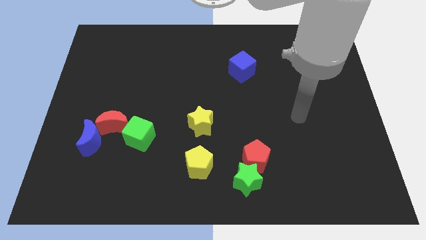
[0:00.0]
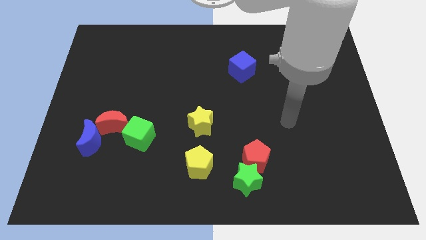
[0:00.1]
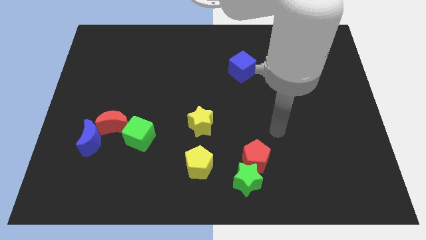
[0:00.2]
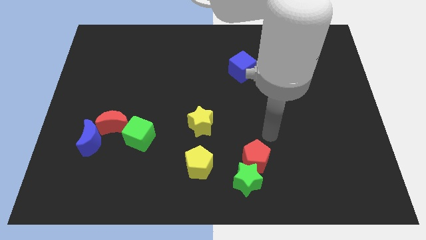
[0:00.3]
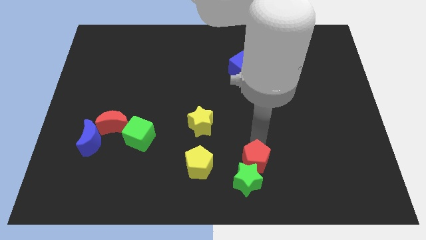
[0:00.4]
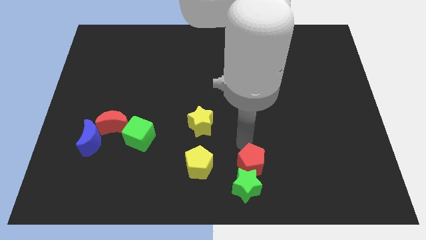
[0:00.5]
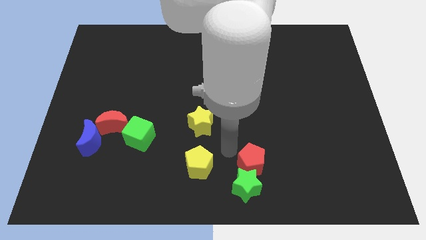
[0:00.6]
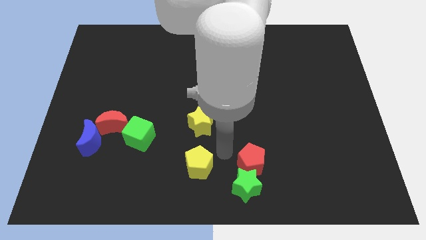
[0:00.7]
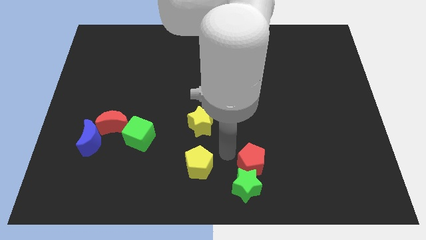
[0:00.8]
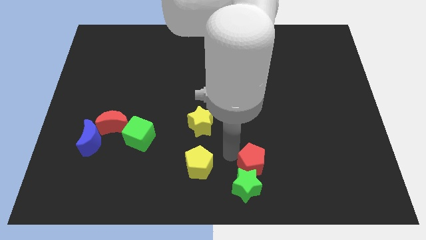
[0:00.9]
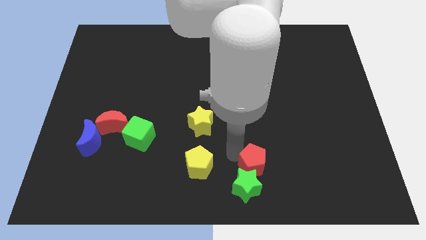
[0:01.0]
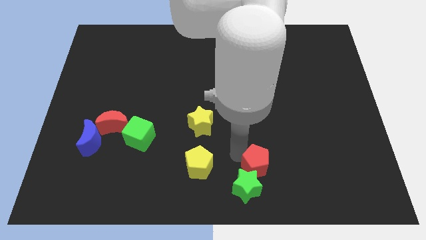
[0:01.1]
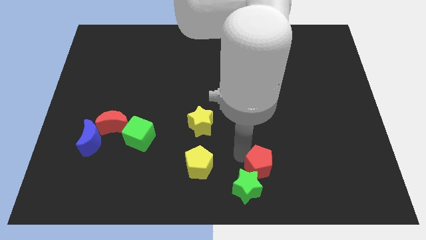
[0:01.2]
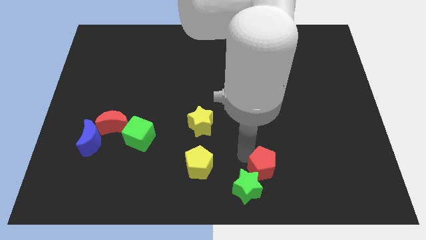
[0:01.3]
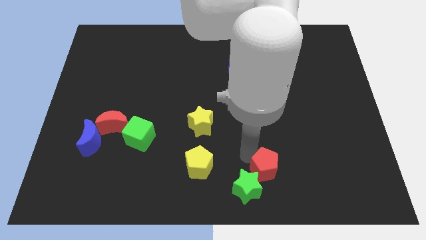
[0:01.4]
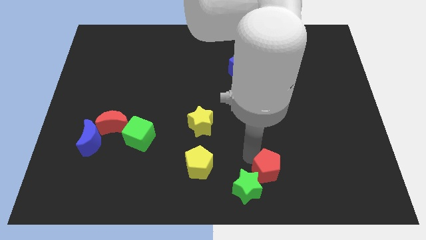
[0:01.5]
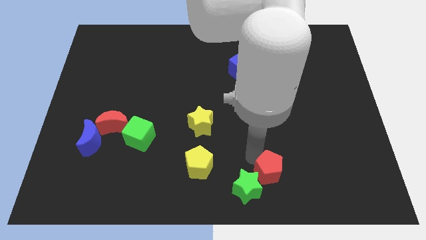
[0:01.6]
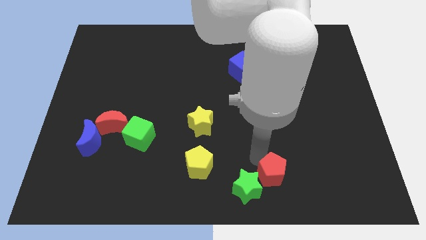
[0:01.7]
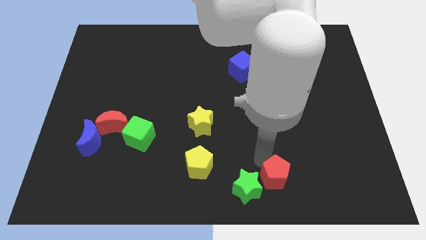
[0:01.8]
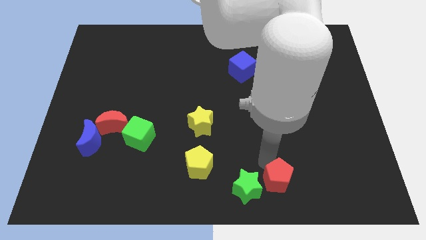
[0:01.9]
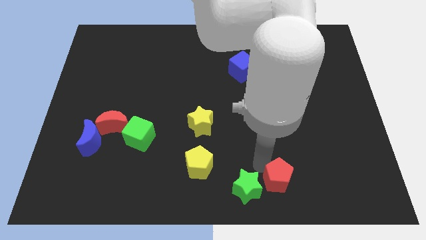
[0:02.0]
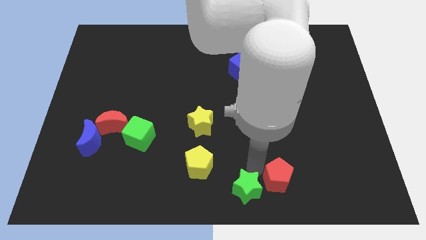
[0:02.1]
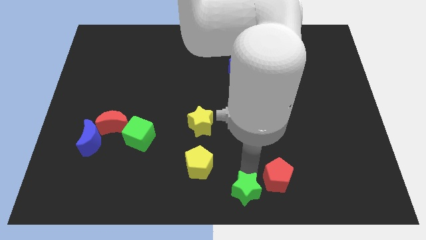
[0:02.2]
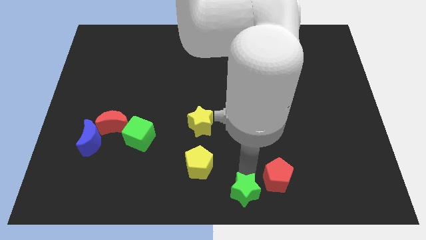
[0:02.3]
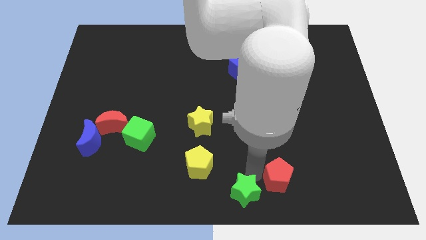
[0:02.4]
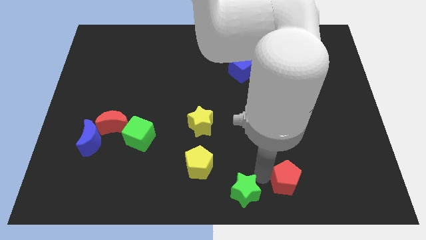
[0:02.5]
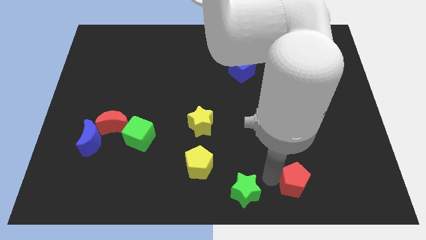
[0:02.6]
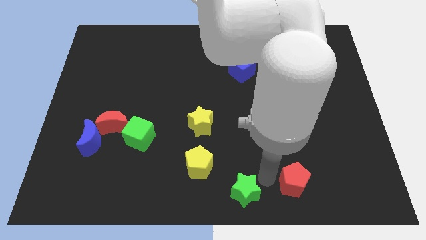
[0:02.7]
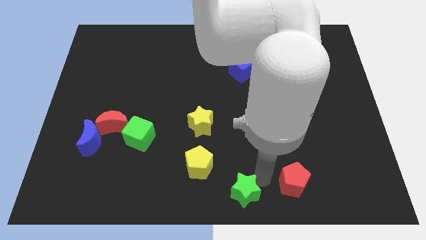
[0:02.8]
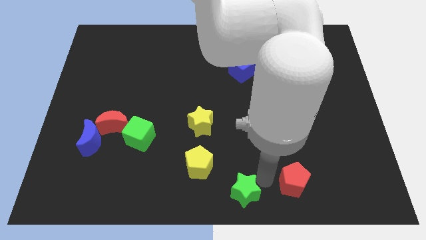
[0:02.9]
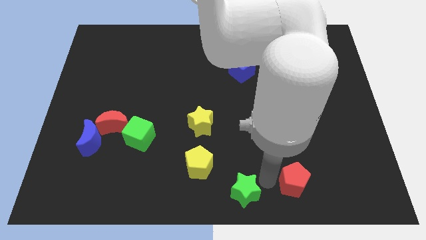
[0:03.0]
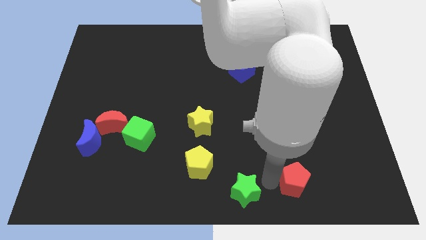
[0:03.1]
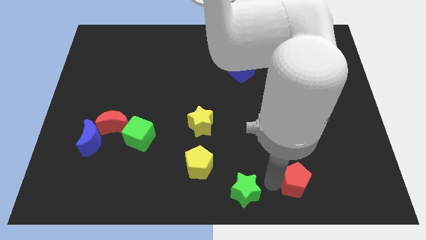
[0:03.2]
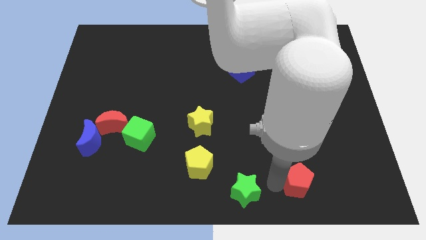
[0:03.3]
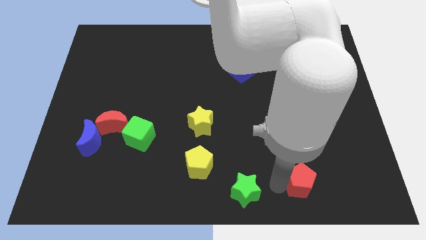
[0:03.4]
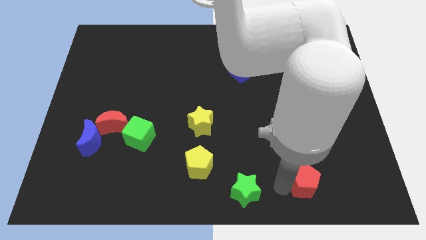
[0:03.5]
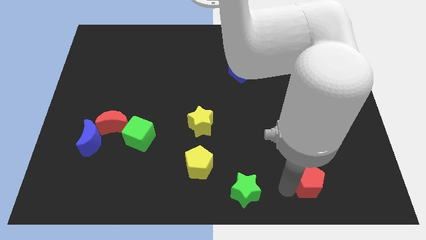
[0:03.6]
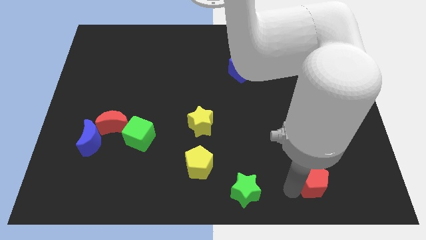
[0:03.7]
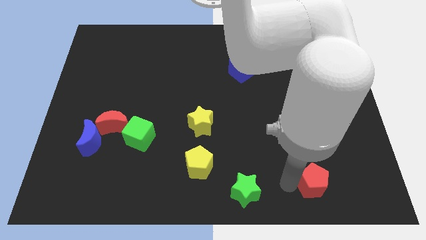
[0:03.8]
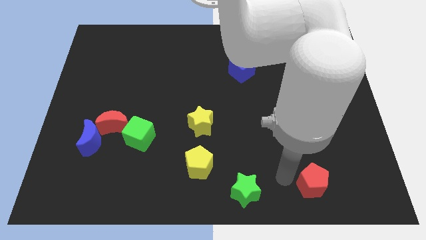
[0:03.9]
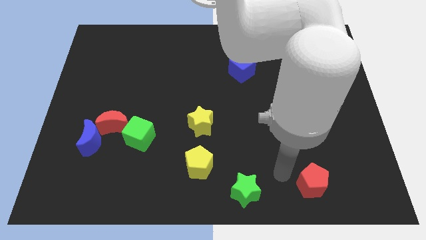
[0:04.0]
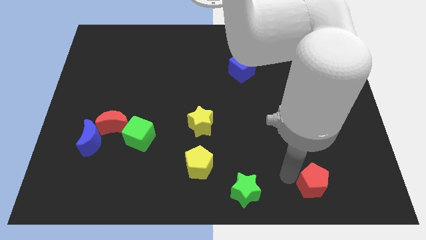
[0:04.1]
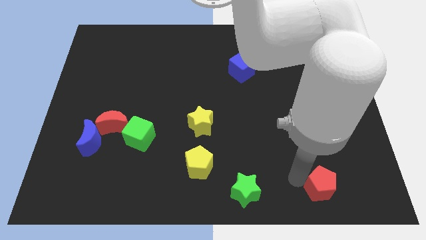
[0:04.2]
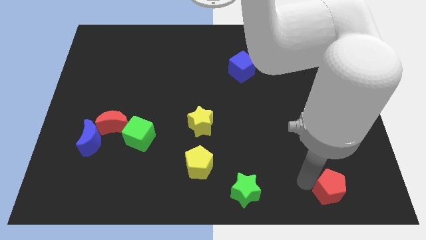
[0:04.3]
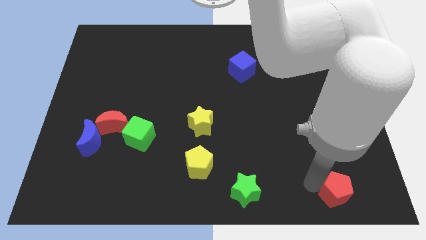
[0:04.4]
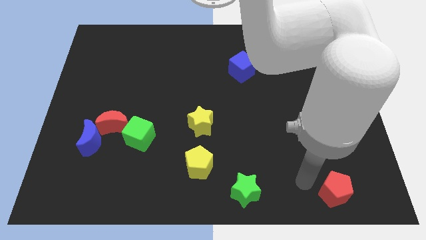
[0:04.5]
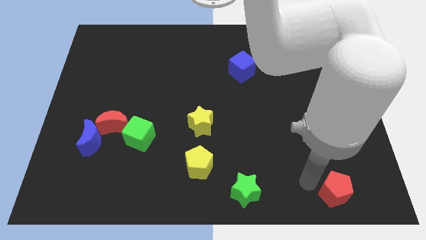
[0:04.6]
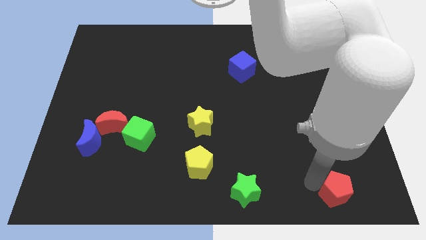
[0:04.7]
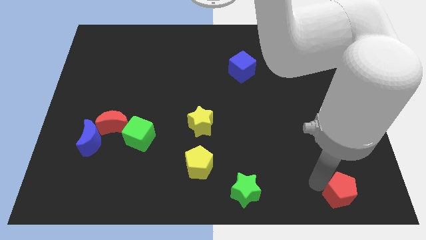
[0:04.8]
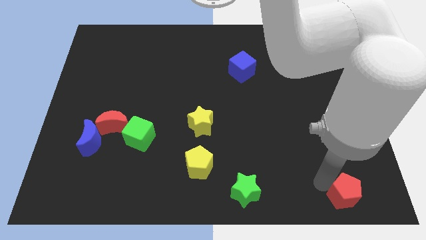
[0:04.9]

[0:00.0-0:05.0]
move the red pentagon to the bottom right of the board

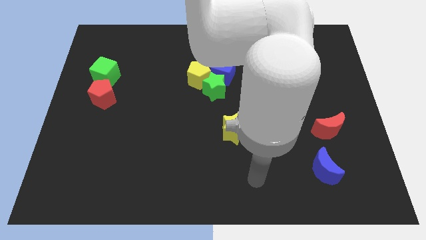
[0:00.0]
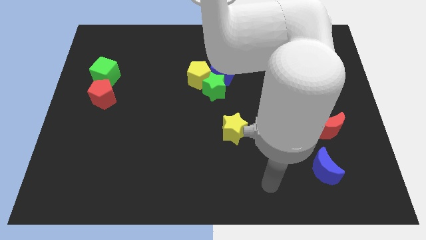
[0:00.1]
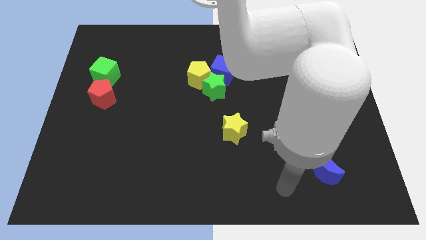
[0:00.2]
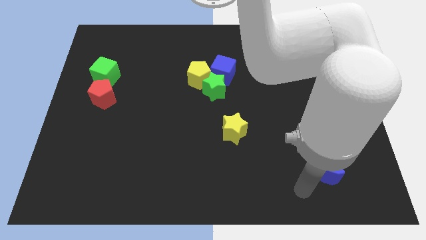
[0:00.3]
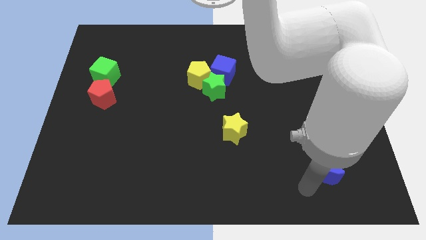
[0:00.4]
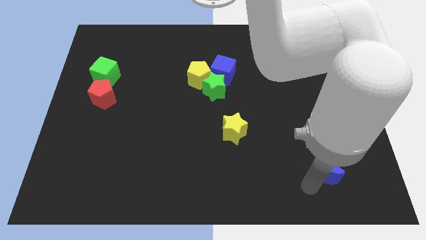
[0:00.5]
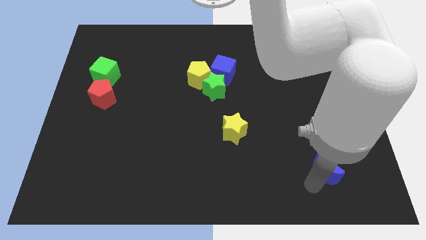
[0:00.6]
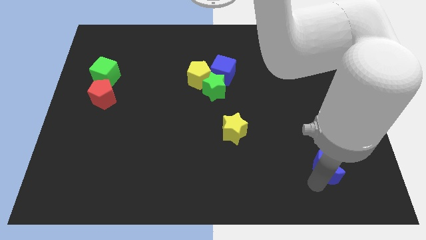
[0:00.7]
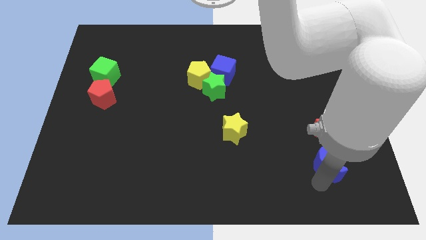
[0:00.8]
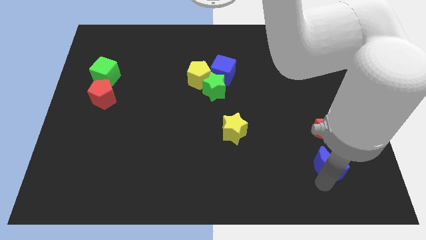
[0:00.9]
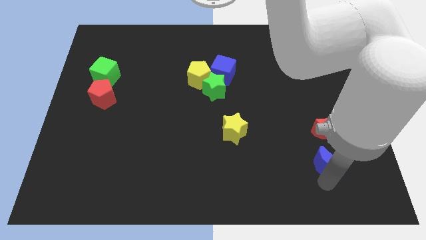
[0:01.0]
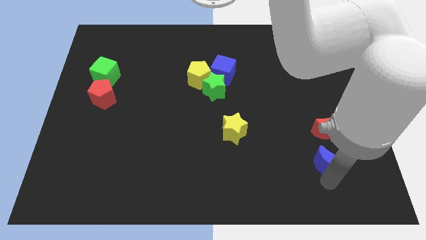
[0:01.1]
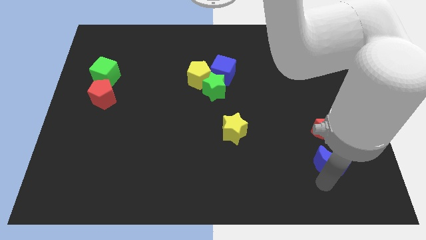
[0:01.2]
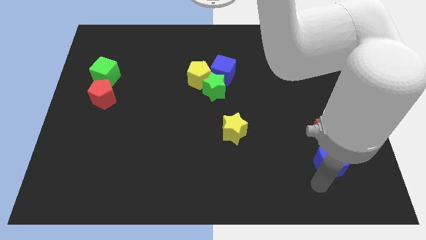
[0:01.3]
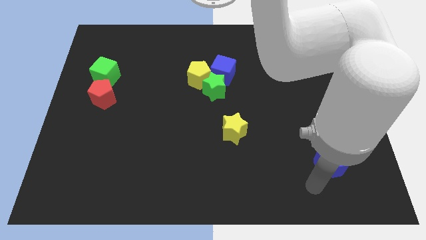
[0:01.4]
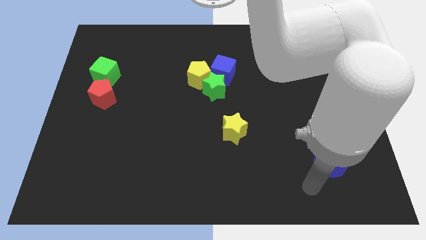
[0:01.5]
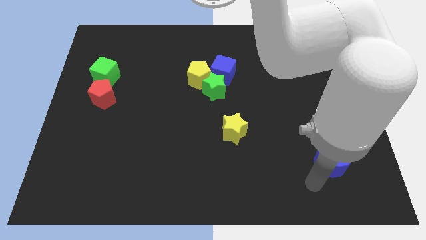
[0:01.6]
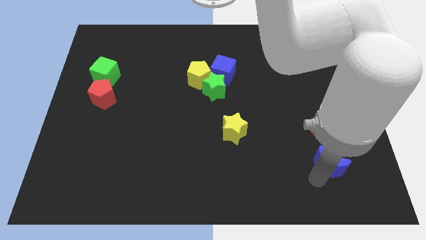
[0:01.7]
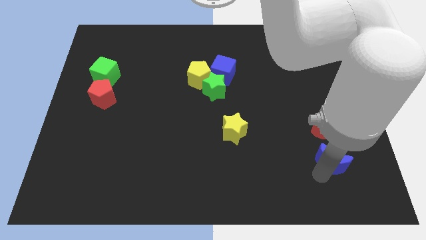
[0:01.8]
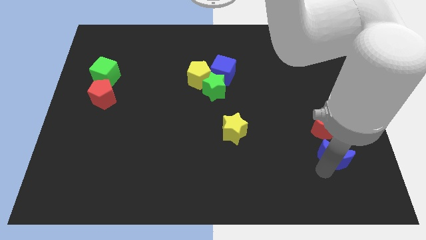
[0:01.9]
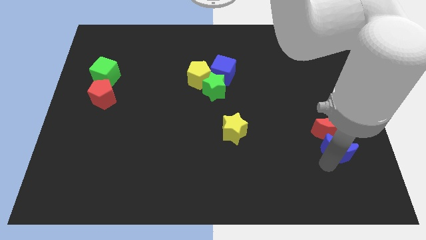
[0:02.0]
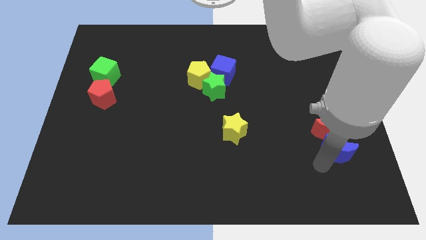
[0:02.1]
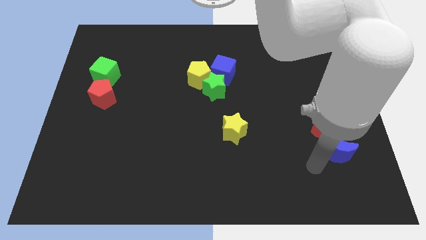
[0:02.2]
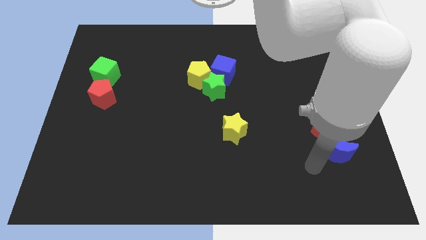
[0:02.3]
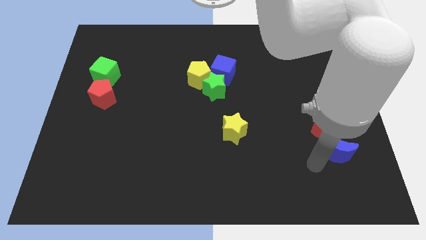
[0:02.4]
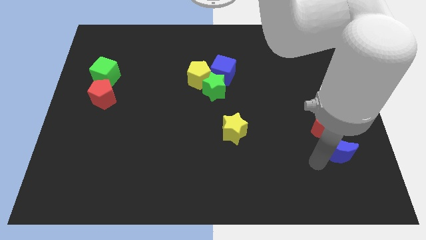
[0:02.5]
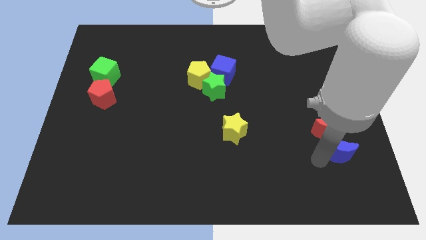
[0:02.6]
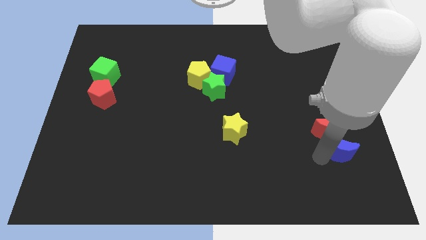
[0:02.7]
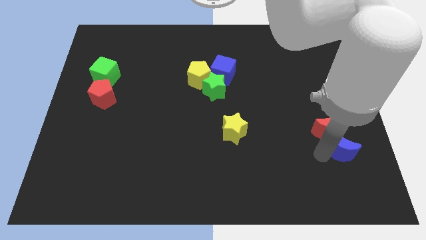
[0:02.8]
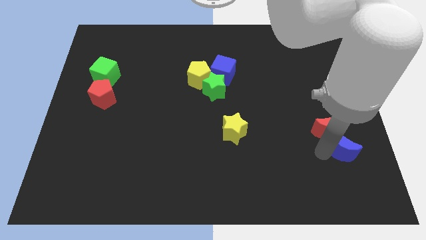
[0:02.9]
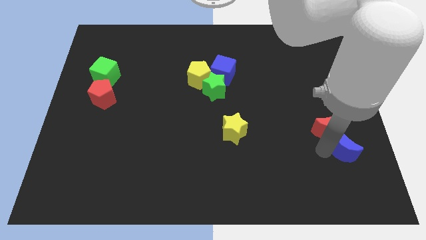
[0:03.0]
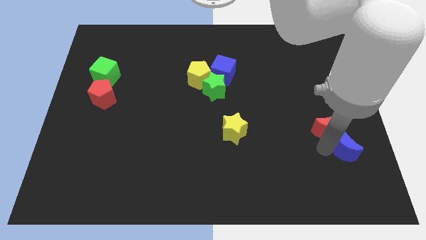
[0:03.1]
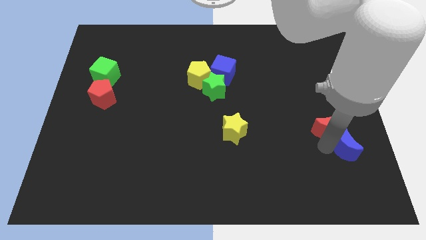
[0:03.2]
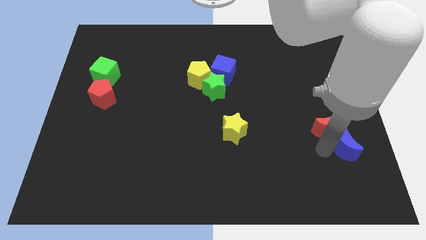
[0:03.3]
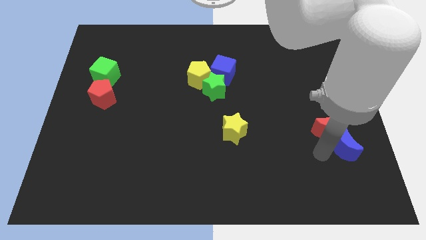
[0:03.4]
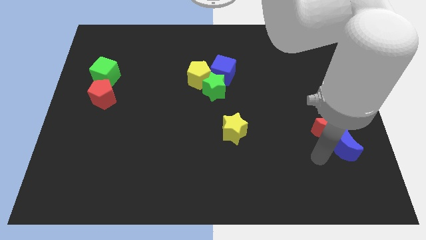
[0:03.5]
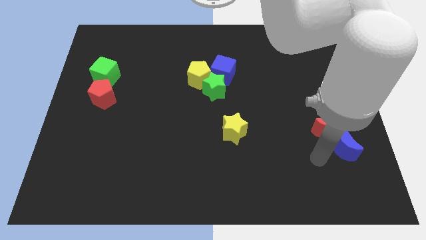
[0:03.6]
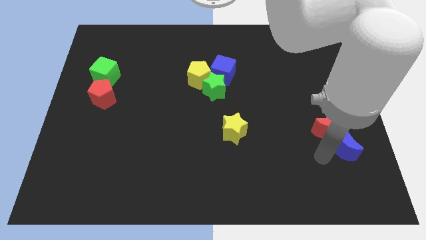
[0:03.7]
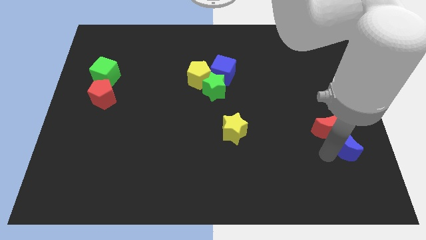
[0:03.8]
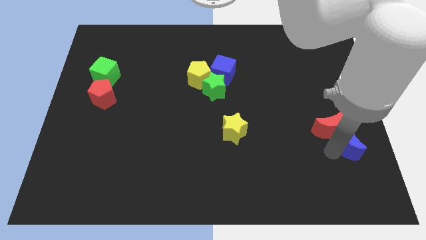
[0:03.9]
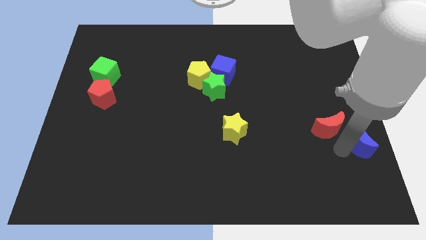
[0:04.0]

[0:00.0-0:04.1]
push the blue moon to the right side of the board
